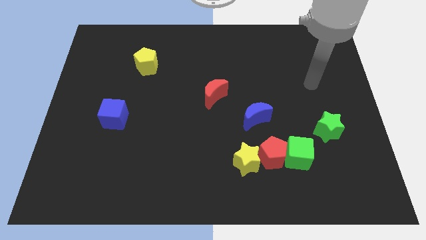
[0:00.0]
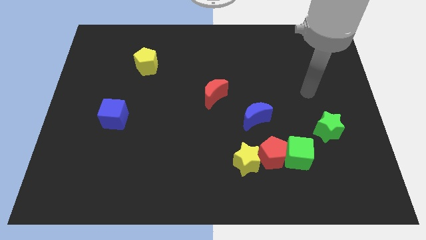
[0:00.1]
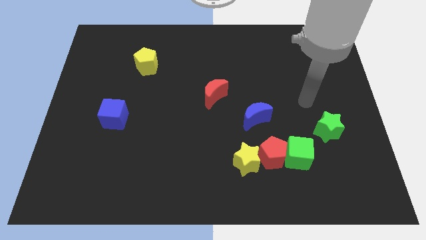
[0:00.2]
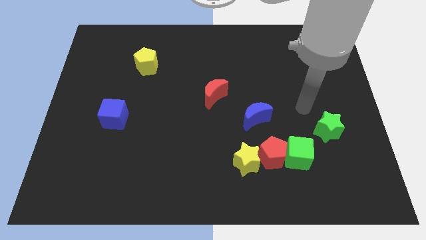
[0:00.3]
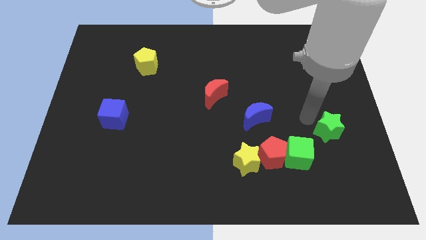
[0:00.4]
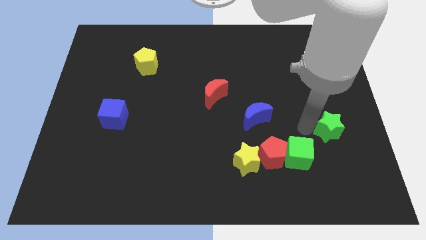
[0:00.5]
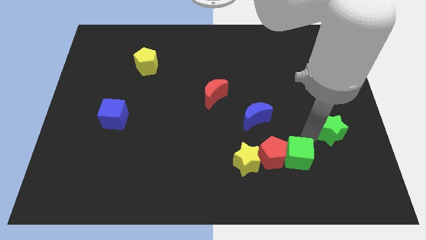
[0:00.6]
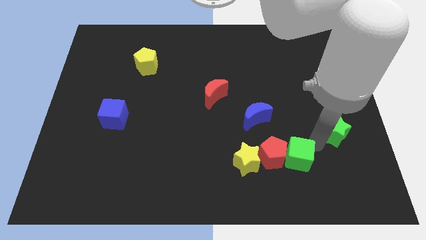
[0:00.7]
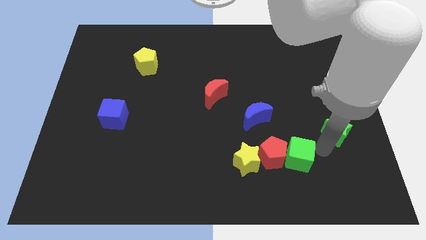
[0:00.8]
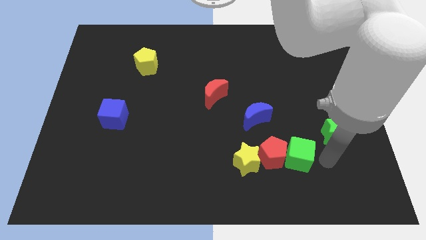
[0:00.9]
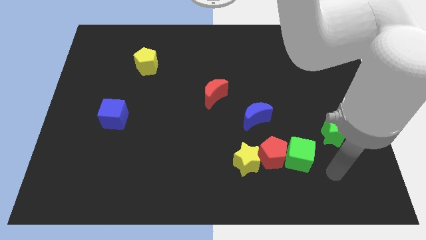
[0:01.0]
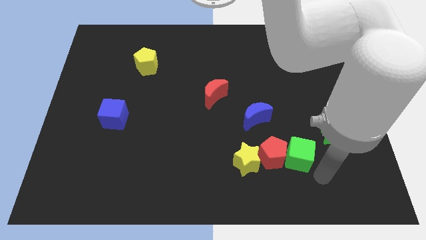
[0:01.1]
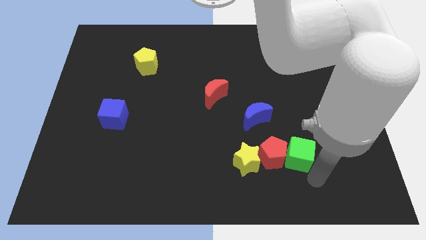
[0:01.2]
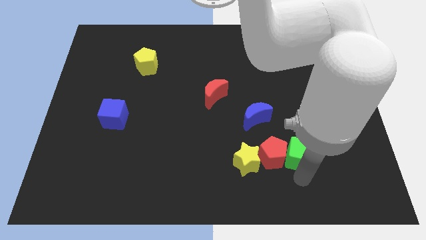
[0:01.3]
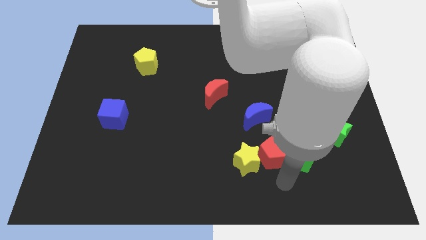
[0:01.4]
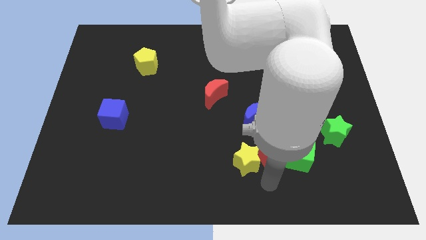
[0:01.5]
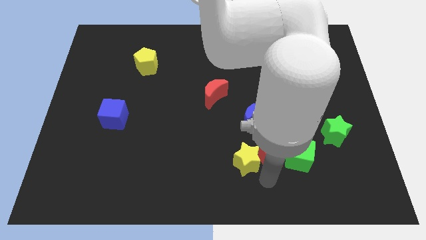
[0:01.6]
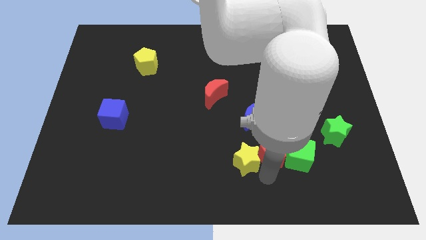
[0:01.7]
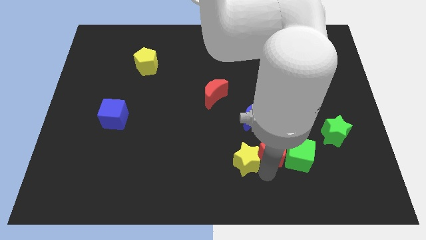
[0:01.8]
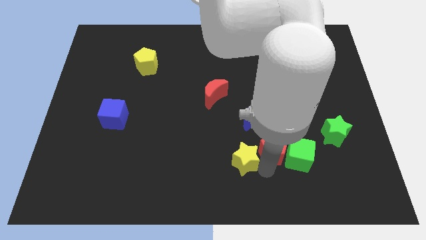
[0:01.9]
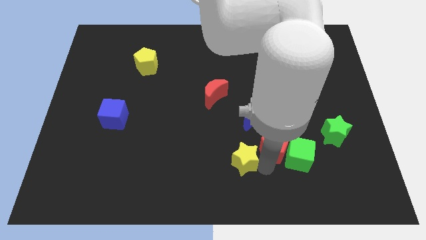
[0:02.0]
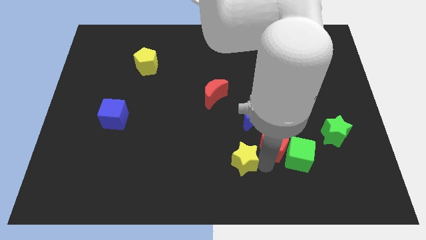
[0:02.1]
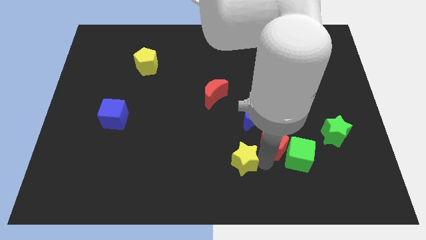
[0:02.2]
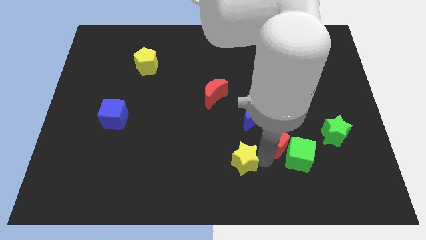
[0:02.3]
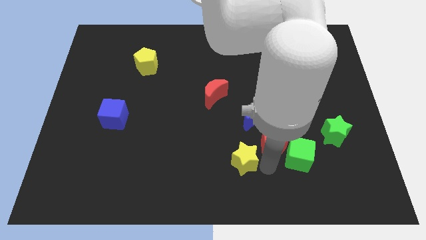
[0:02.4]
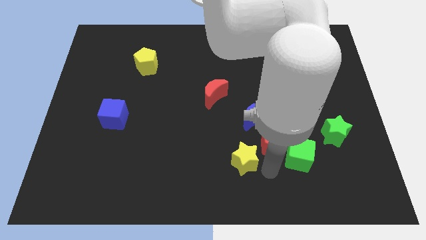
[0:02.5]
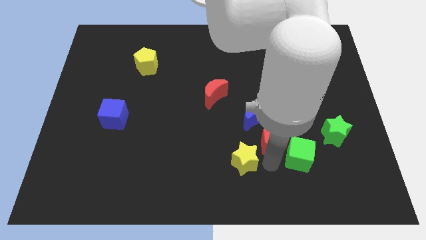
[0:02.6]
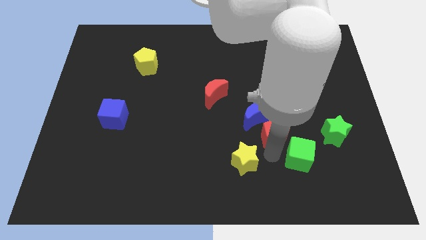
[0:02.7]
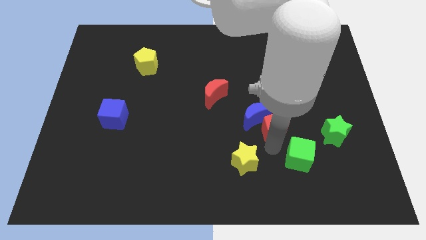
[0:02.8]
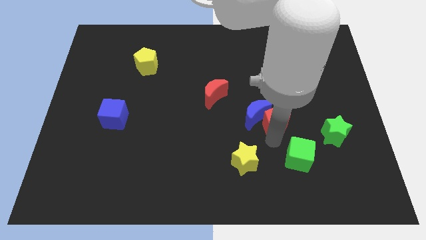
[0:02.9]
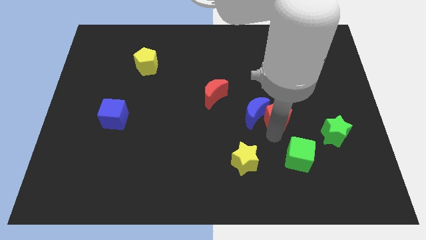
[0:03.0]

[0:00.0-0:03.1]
pull the red pentagon apart from the green cube and yellow star

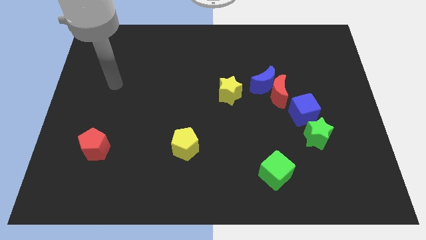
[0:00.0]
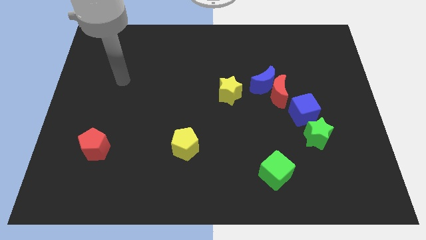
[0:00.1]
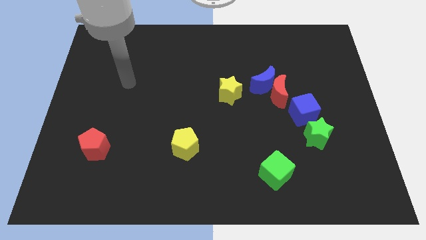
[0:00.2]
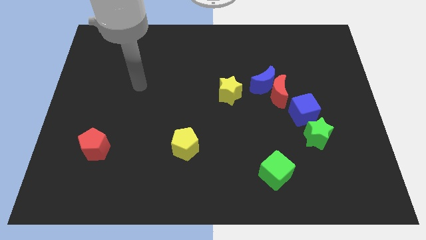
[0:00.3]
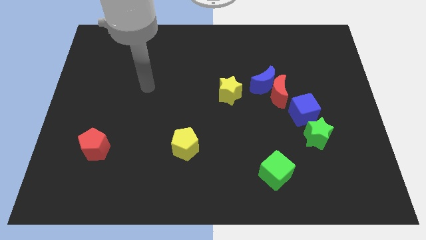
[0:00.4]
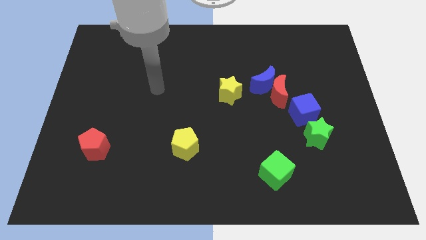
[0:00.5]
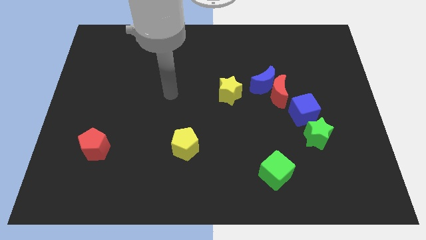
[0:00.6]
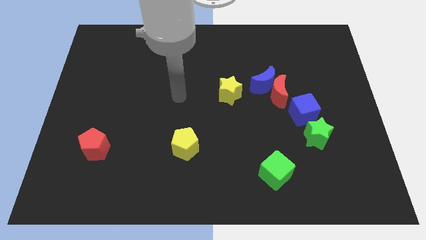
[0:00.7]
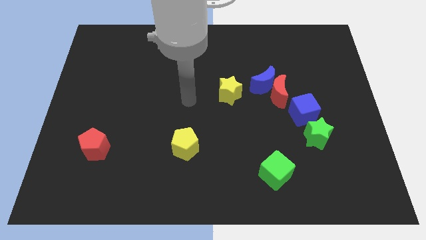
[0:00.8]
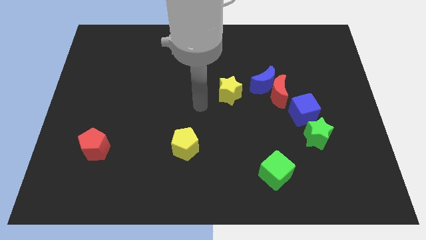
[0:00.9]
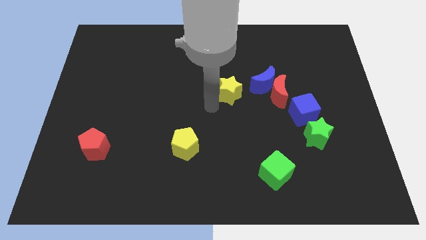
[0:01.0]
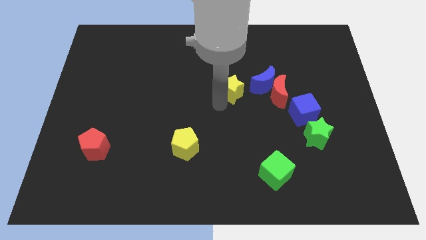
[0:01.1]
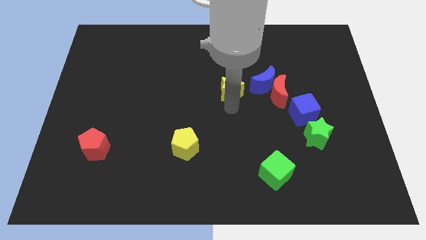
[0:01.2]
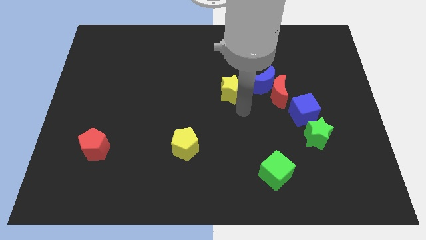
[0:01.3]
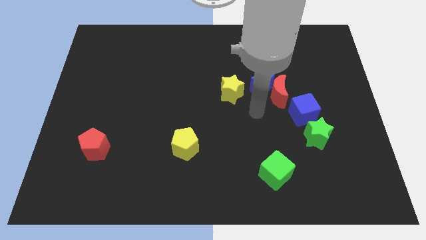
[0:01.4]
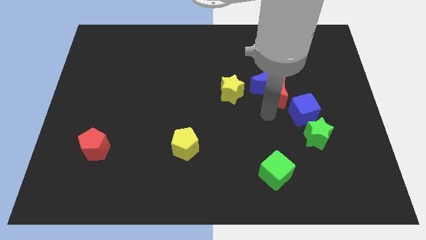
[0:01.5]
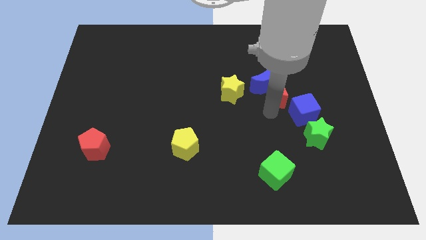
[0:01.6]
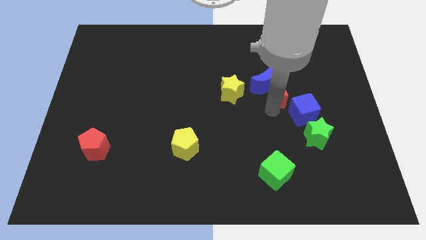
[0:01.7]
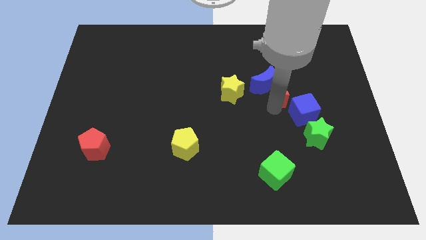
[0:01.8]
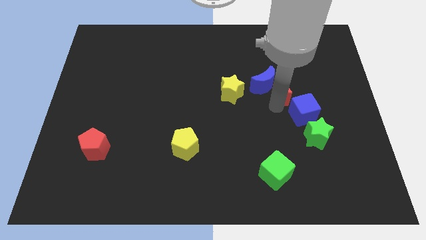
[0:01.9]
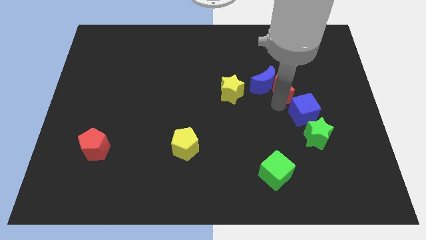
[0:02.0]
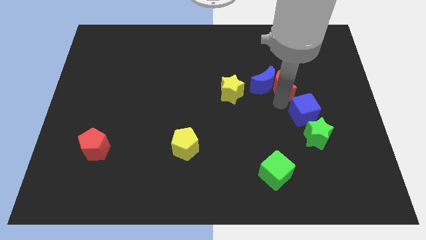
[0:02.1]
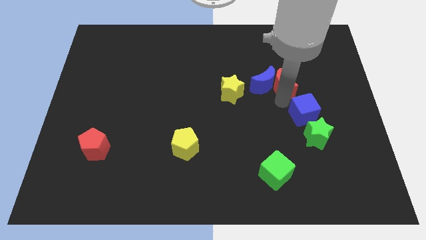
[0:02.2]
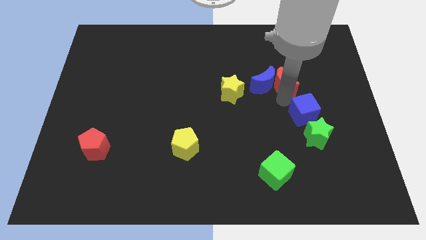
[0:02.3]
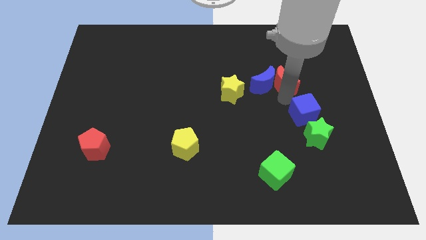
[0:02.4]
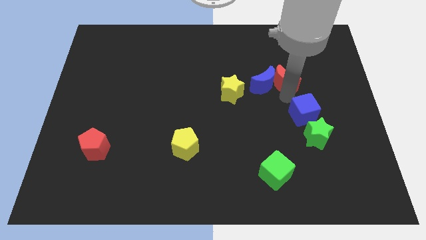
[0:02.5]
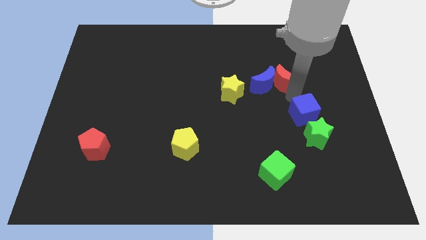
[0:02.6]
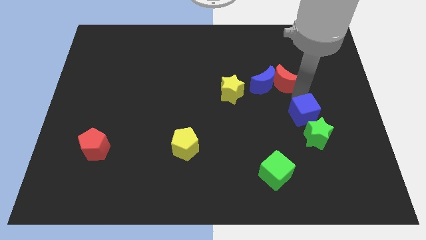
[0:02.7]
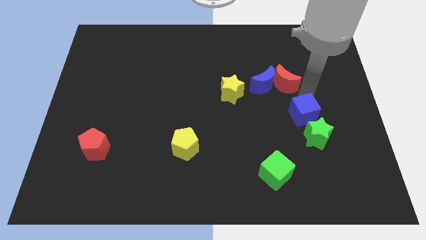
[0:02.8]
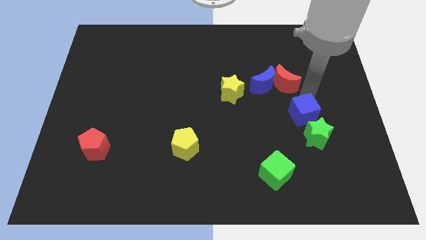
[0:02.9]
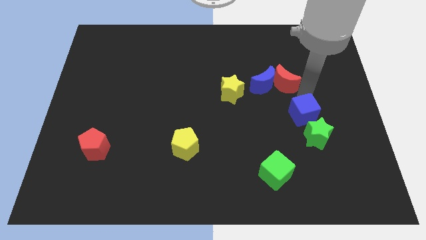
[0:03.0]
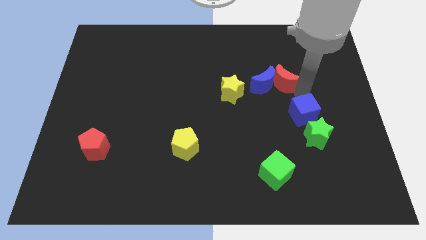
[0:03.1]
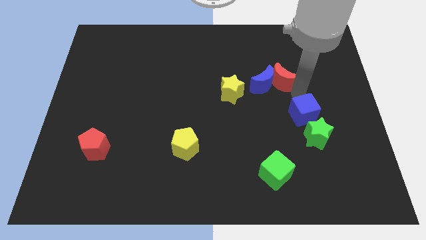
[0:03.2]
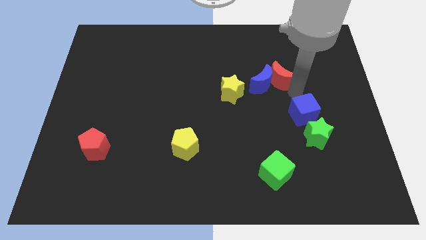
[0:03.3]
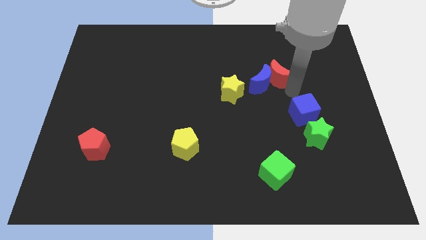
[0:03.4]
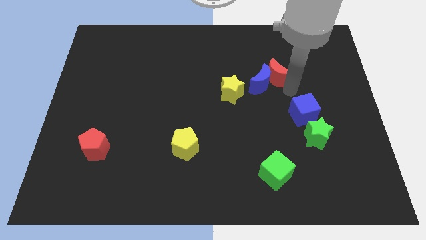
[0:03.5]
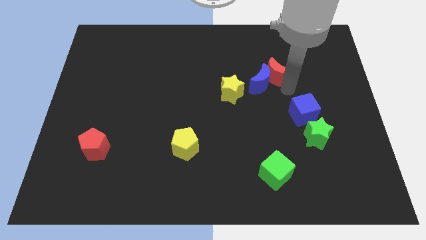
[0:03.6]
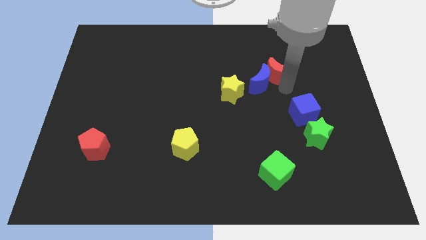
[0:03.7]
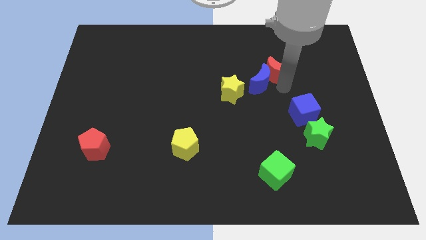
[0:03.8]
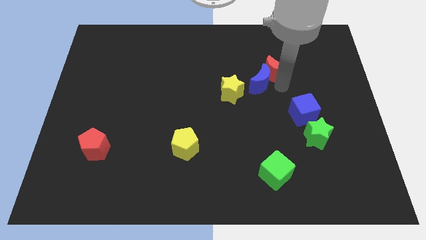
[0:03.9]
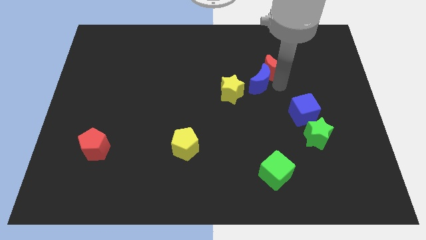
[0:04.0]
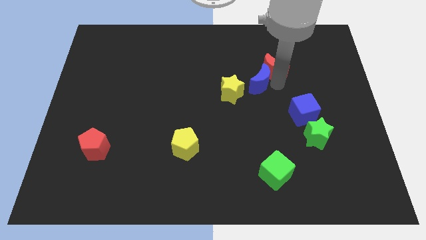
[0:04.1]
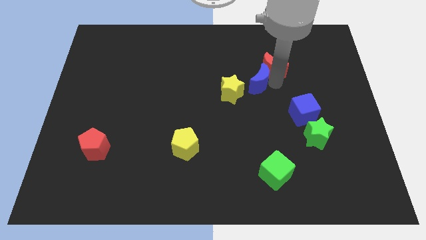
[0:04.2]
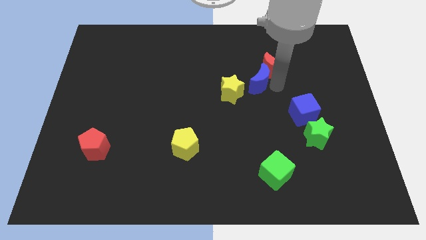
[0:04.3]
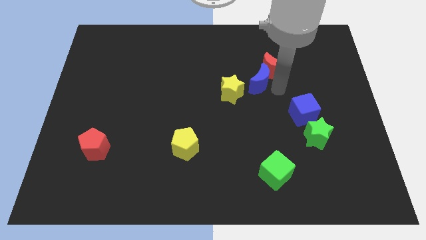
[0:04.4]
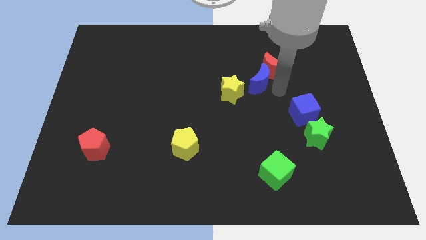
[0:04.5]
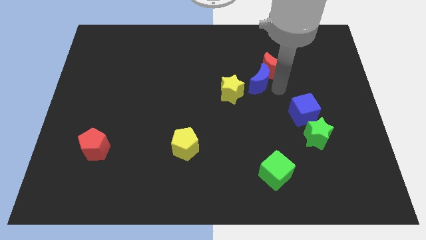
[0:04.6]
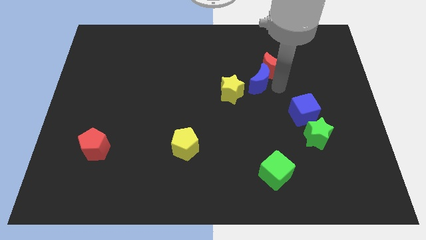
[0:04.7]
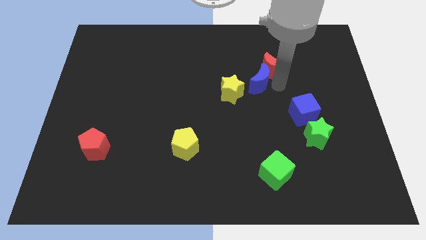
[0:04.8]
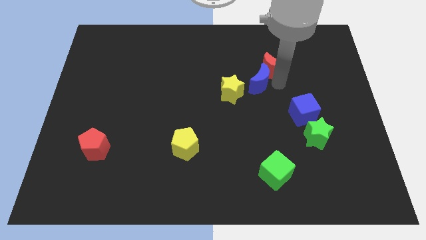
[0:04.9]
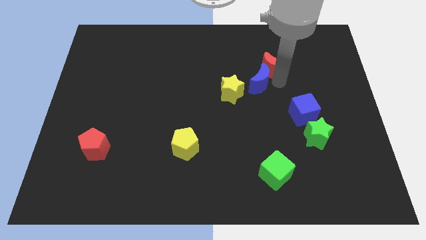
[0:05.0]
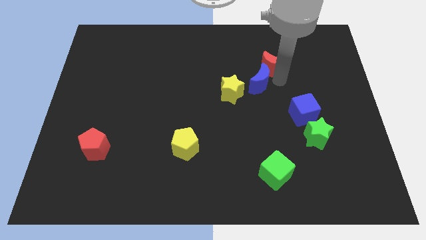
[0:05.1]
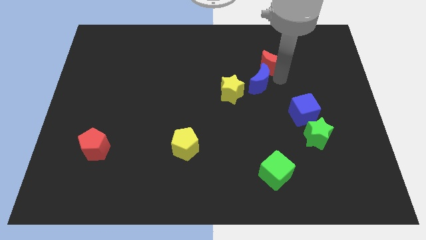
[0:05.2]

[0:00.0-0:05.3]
pull the red moon apart from the blue moon and blue cube

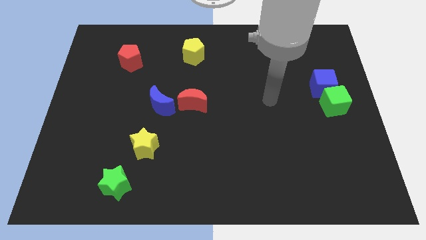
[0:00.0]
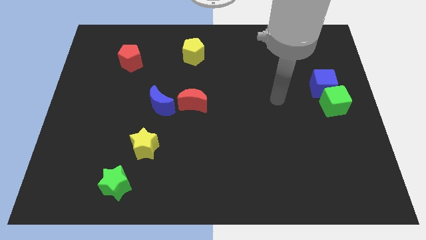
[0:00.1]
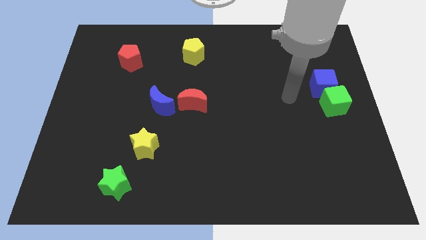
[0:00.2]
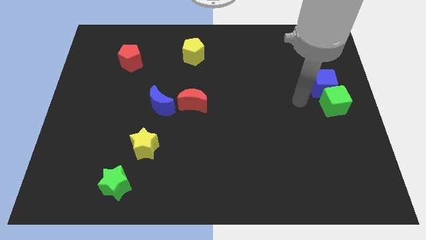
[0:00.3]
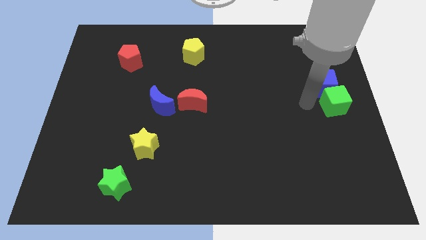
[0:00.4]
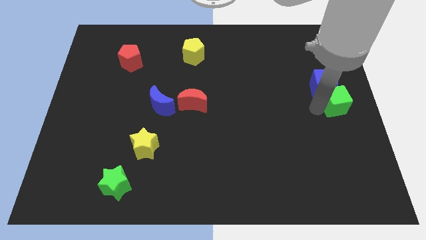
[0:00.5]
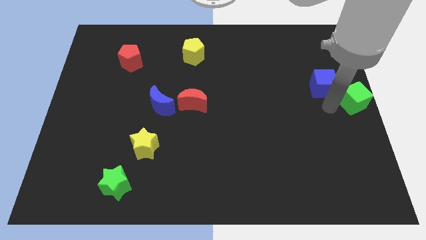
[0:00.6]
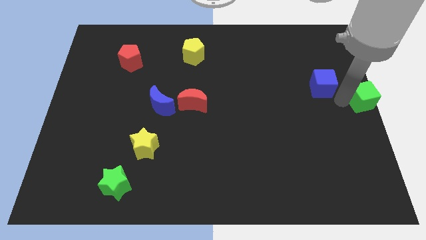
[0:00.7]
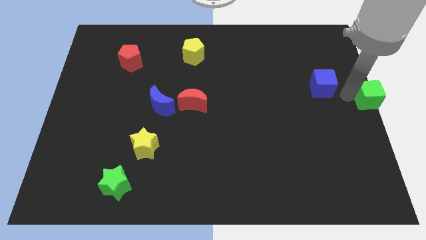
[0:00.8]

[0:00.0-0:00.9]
pull the blue cube apart from the green cube
